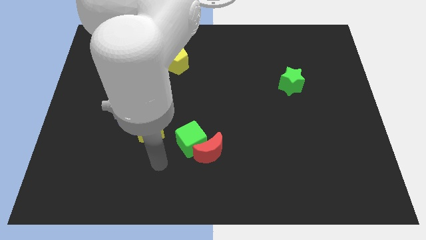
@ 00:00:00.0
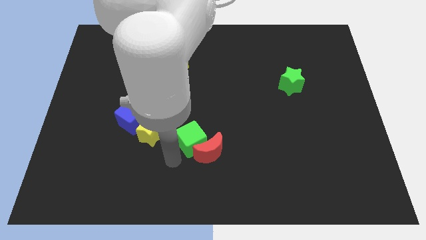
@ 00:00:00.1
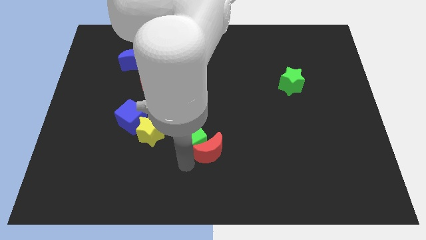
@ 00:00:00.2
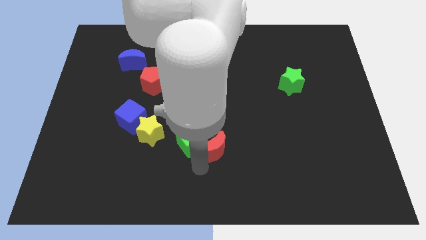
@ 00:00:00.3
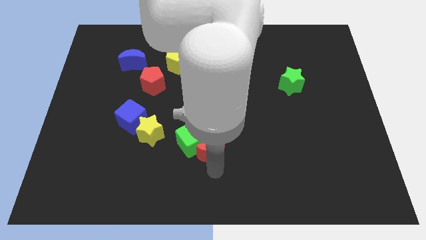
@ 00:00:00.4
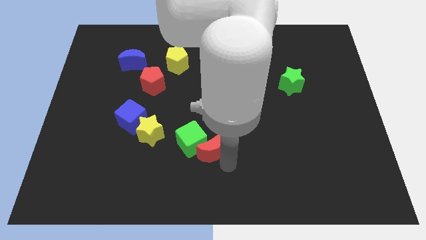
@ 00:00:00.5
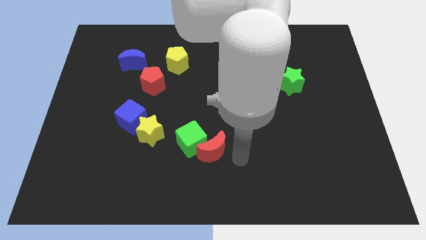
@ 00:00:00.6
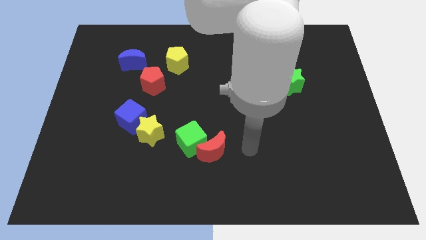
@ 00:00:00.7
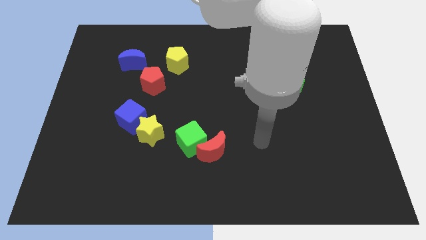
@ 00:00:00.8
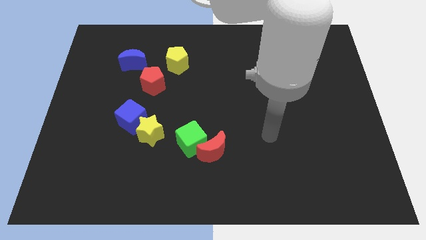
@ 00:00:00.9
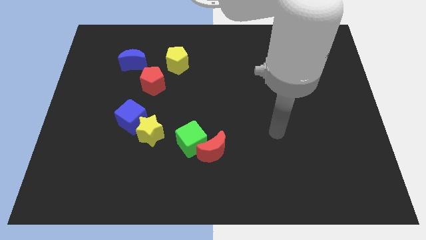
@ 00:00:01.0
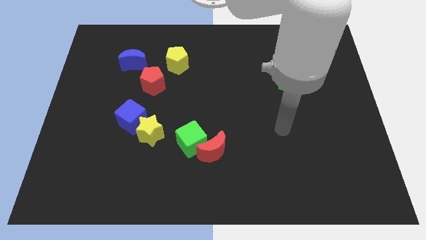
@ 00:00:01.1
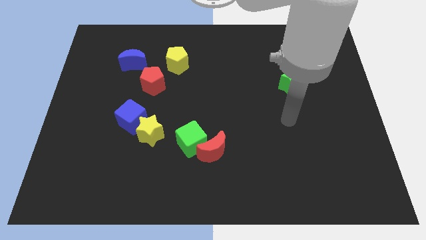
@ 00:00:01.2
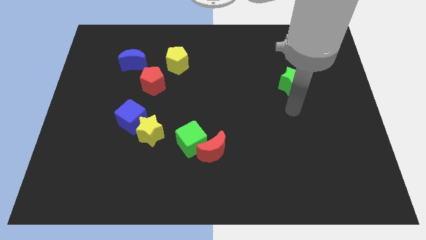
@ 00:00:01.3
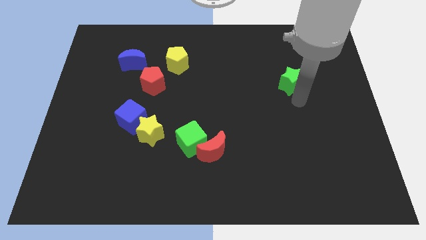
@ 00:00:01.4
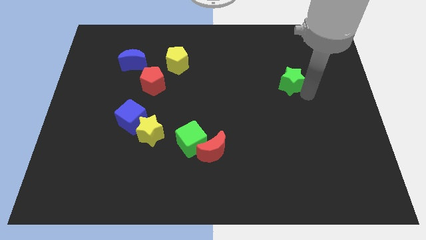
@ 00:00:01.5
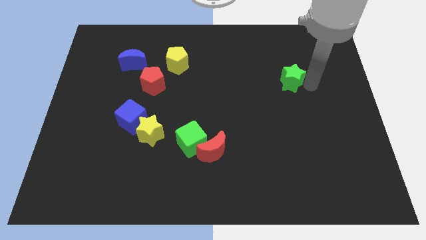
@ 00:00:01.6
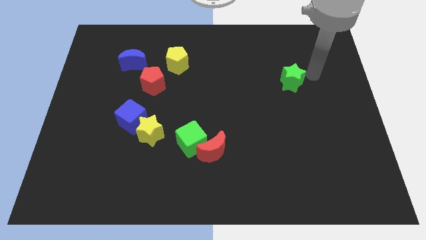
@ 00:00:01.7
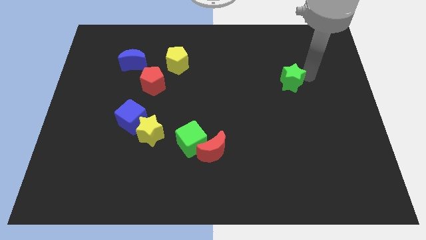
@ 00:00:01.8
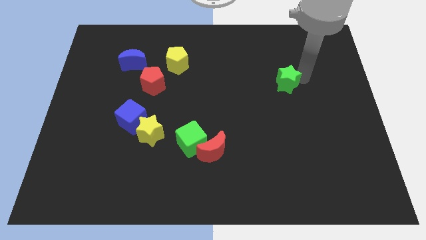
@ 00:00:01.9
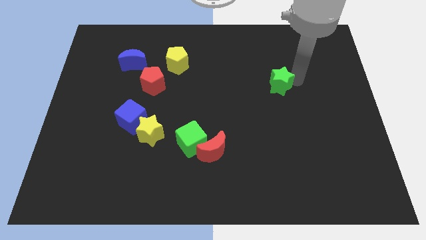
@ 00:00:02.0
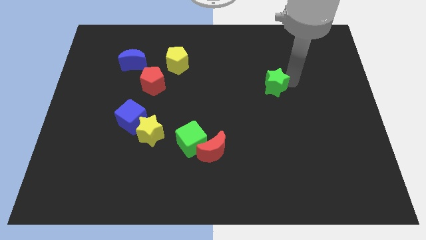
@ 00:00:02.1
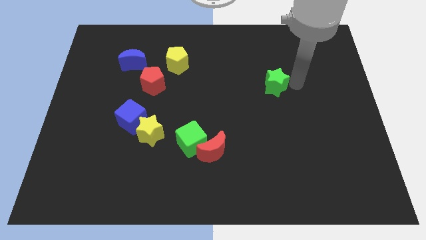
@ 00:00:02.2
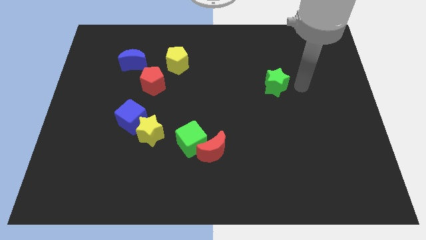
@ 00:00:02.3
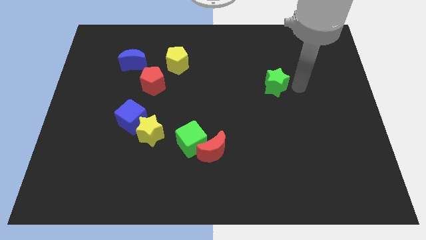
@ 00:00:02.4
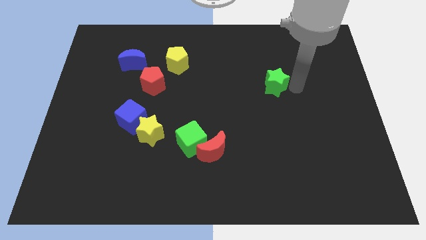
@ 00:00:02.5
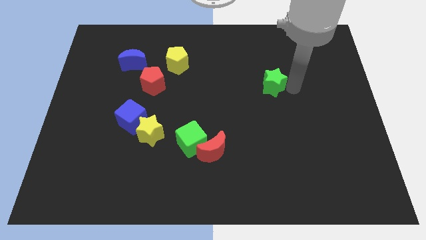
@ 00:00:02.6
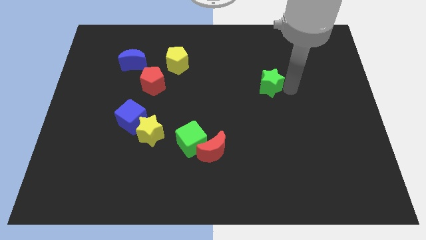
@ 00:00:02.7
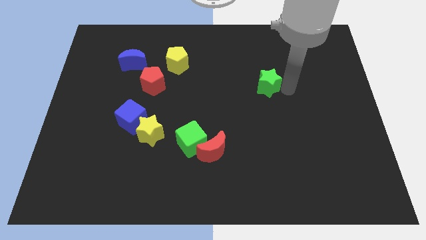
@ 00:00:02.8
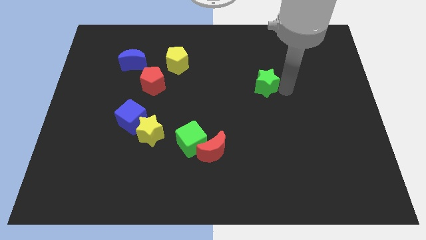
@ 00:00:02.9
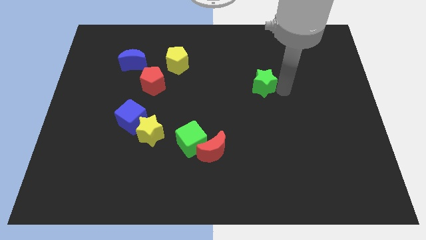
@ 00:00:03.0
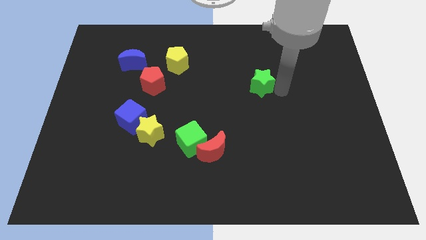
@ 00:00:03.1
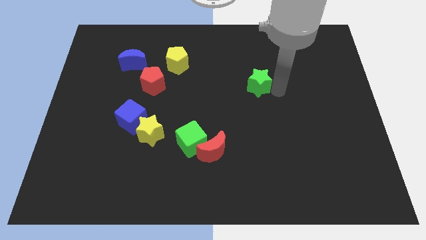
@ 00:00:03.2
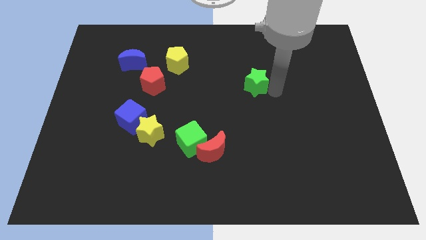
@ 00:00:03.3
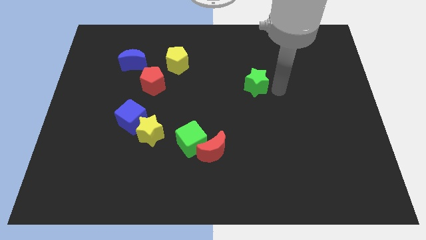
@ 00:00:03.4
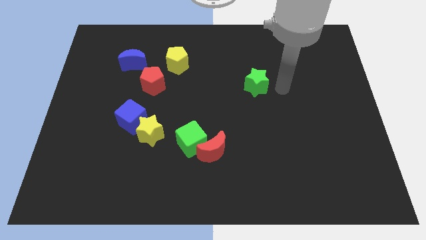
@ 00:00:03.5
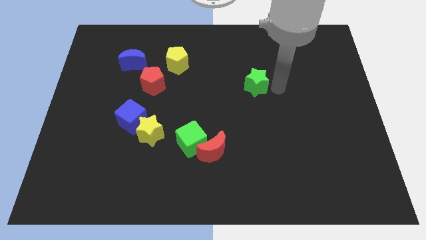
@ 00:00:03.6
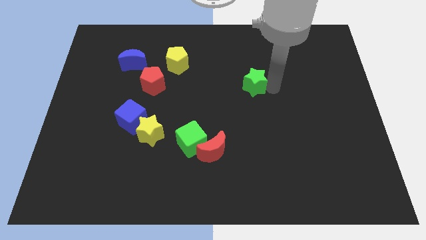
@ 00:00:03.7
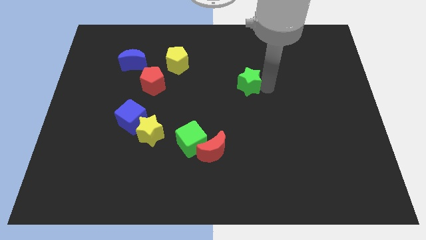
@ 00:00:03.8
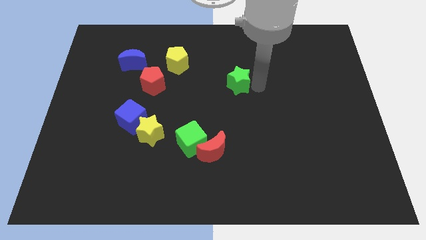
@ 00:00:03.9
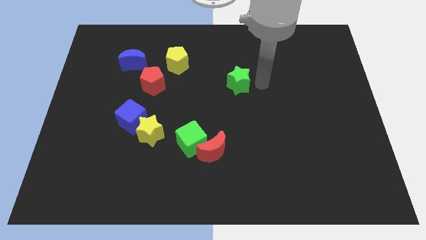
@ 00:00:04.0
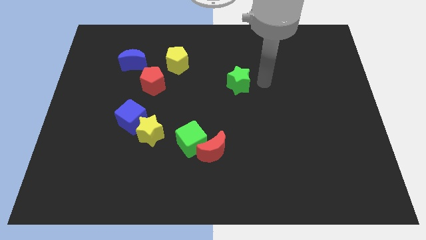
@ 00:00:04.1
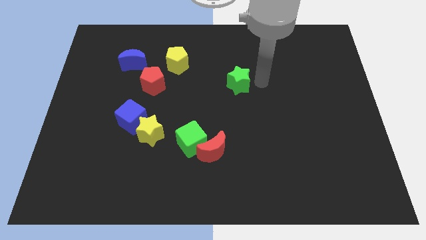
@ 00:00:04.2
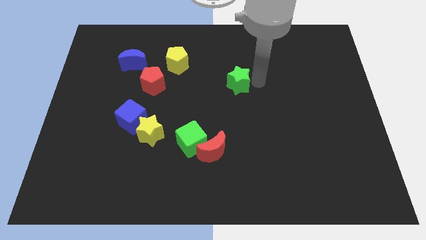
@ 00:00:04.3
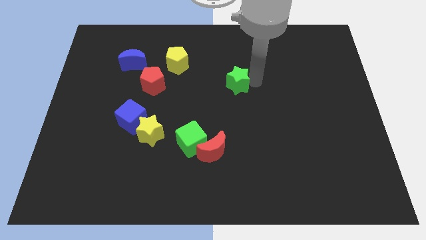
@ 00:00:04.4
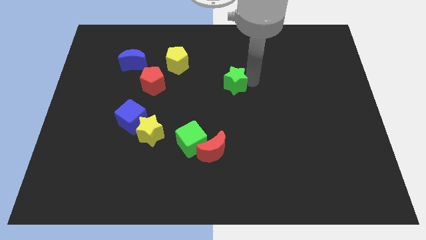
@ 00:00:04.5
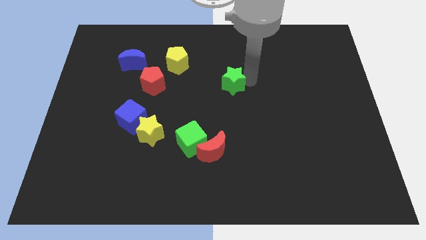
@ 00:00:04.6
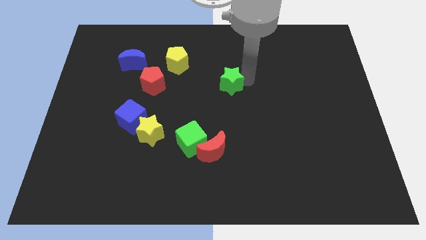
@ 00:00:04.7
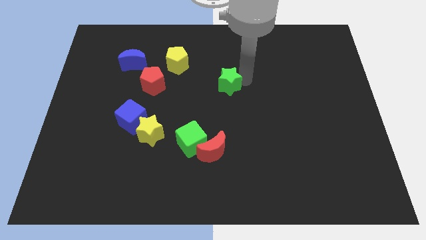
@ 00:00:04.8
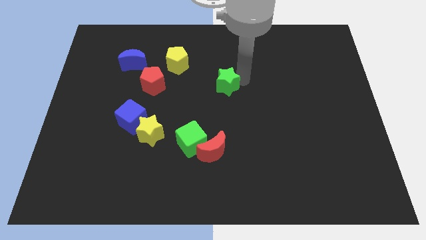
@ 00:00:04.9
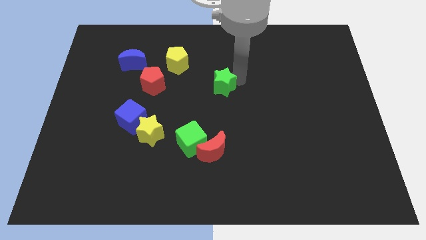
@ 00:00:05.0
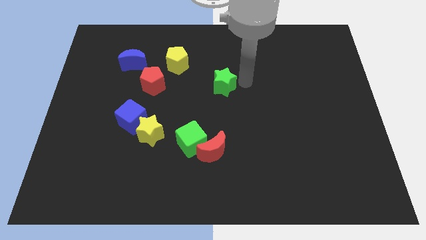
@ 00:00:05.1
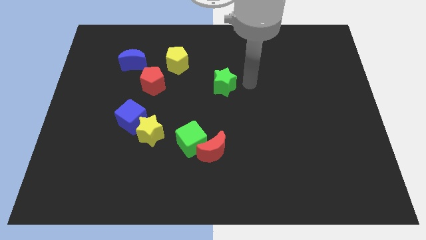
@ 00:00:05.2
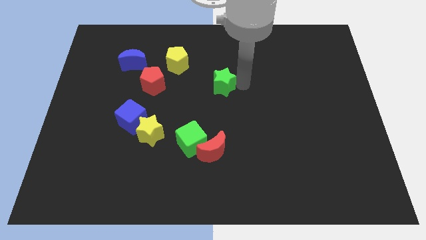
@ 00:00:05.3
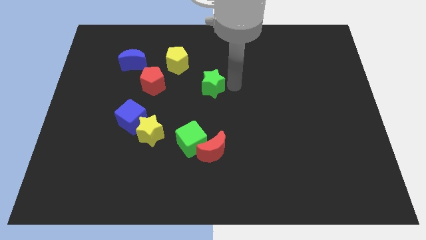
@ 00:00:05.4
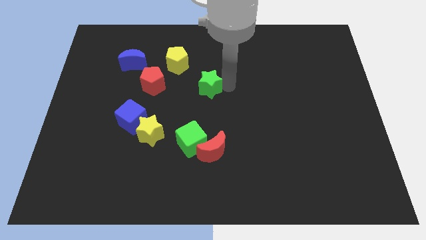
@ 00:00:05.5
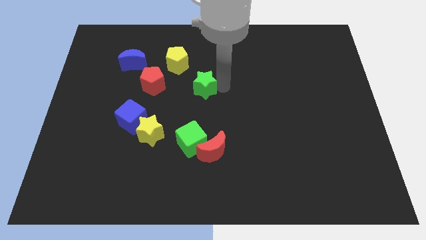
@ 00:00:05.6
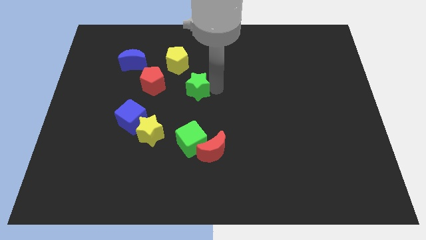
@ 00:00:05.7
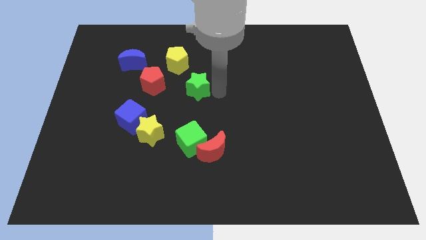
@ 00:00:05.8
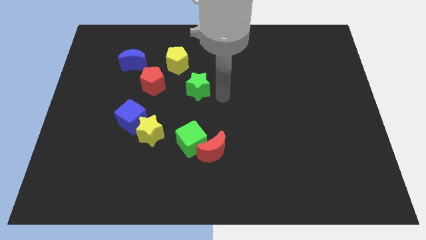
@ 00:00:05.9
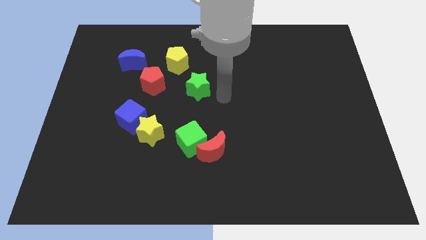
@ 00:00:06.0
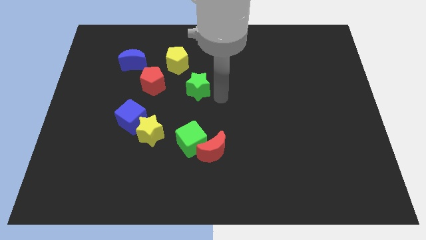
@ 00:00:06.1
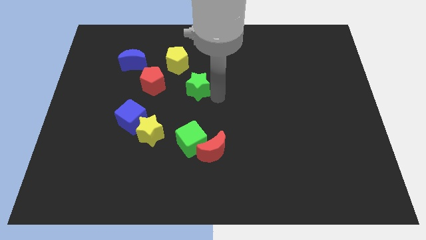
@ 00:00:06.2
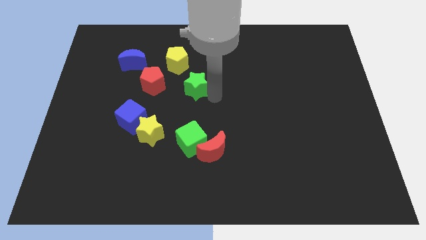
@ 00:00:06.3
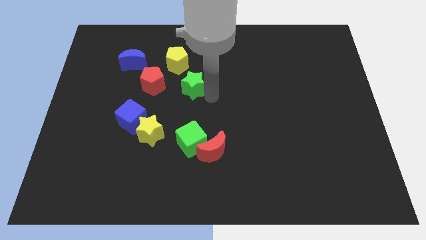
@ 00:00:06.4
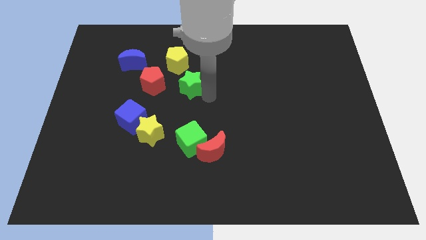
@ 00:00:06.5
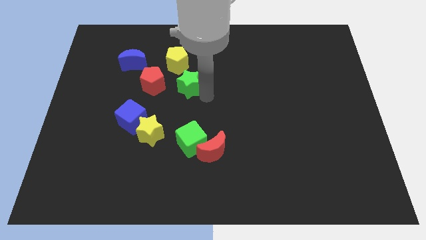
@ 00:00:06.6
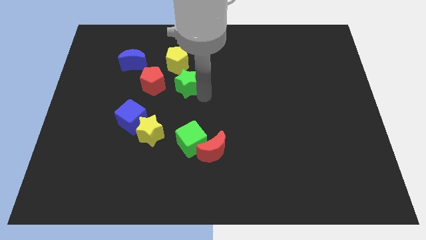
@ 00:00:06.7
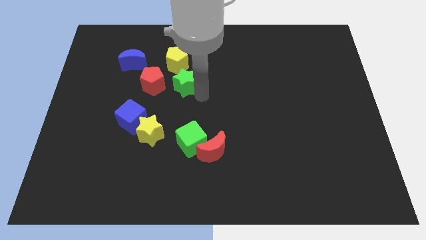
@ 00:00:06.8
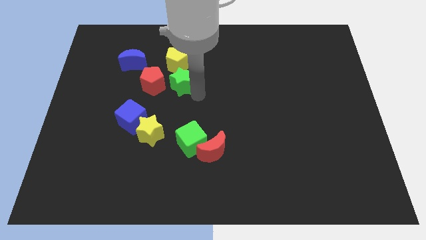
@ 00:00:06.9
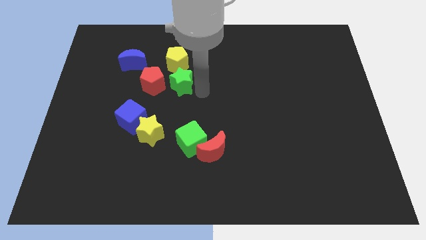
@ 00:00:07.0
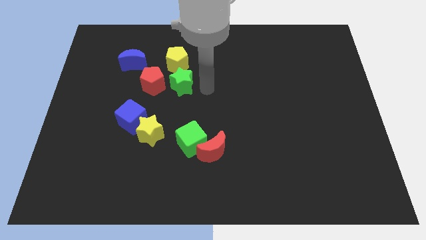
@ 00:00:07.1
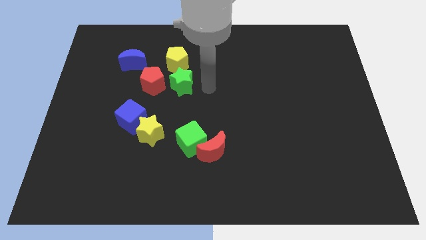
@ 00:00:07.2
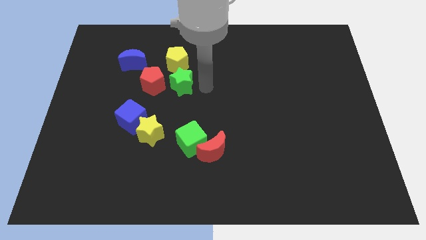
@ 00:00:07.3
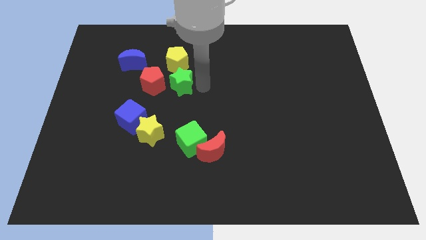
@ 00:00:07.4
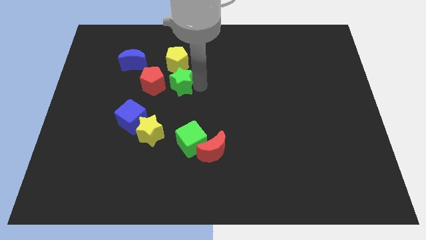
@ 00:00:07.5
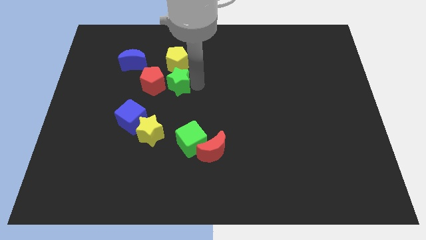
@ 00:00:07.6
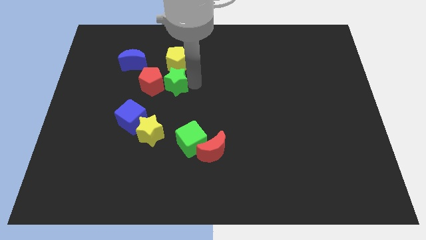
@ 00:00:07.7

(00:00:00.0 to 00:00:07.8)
push the green star towards the red pentagon
